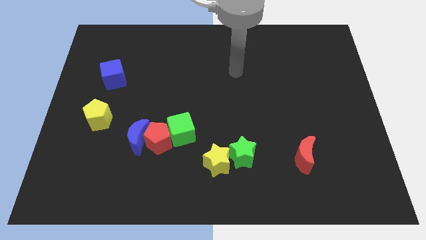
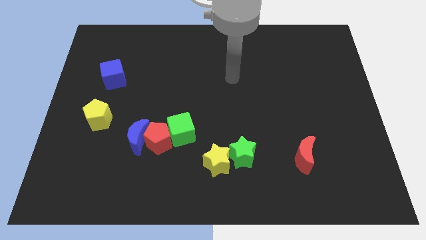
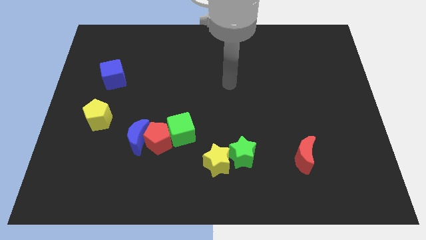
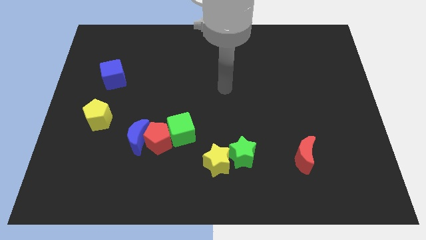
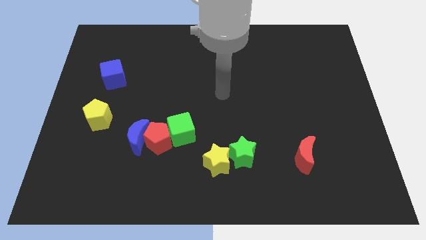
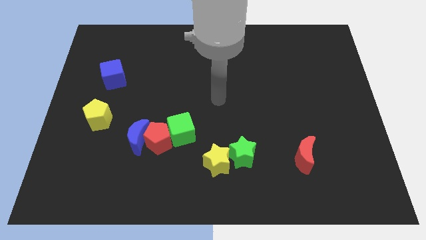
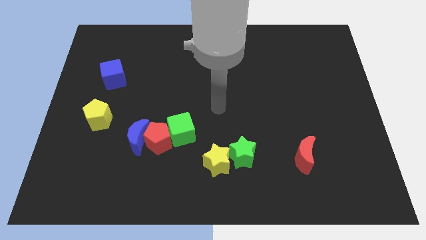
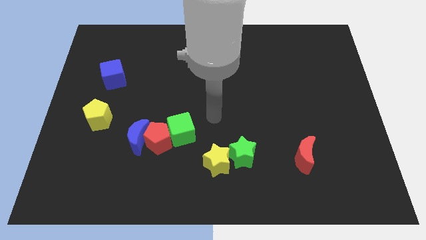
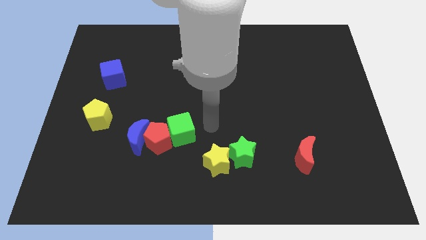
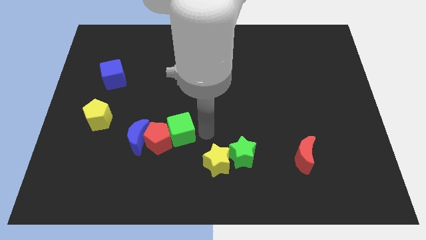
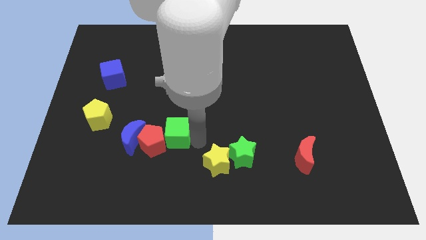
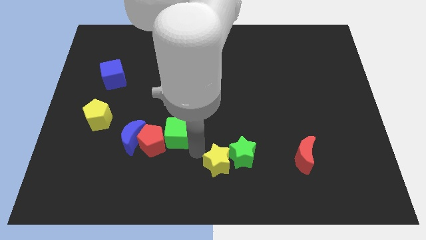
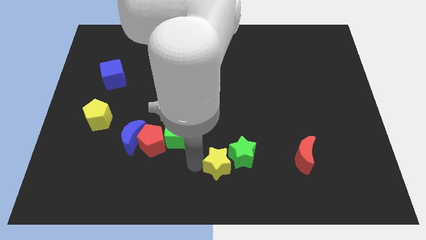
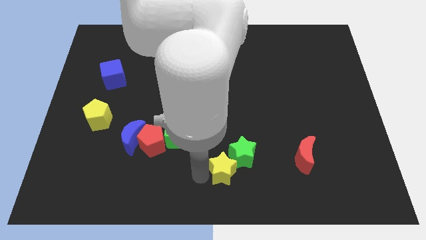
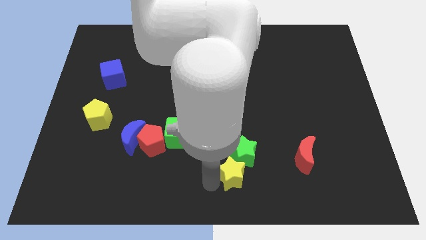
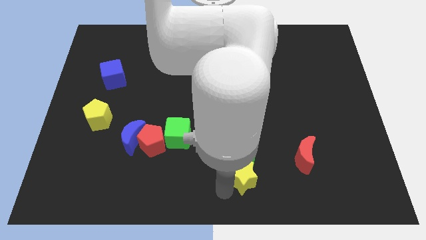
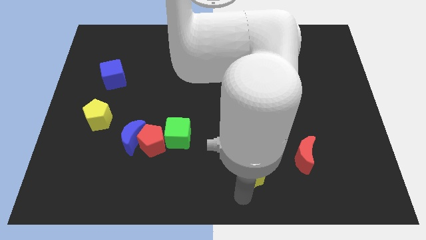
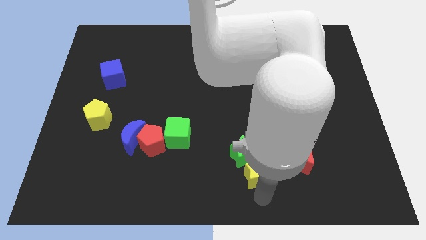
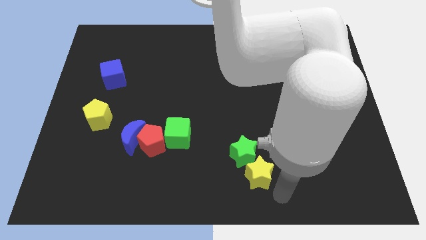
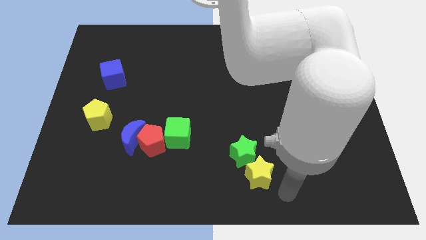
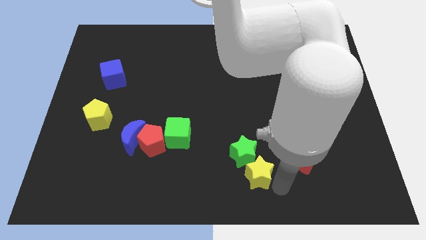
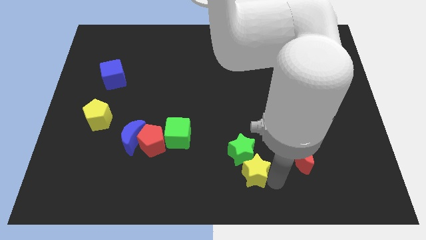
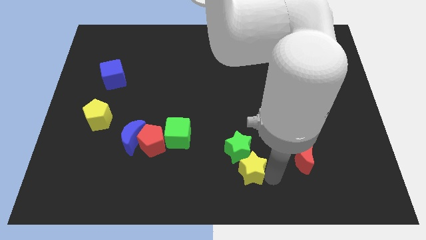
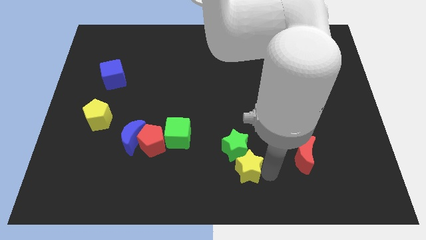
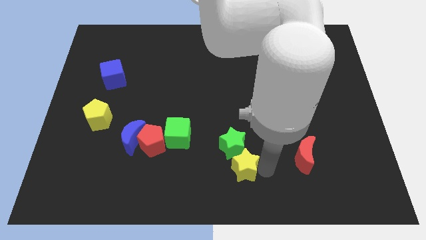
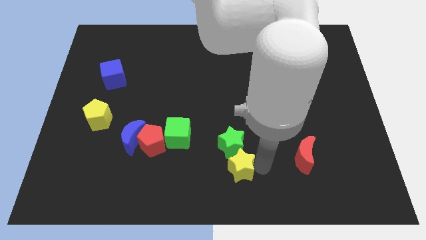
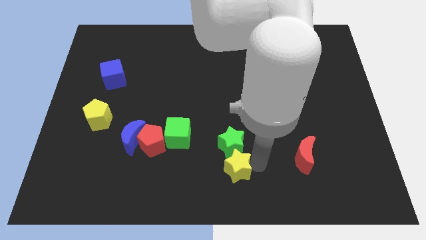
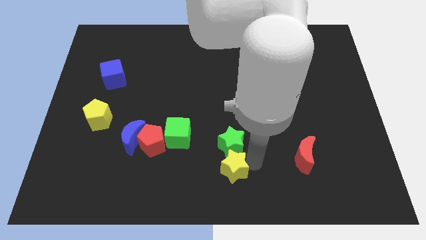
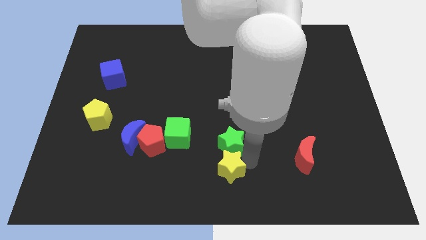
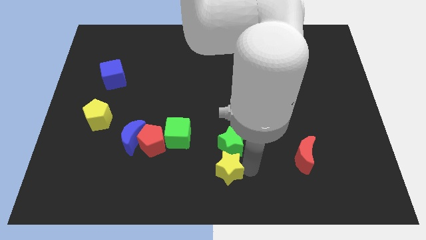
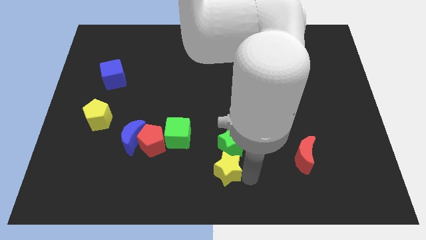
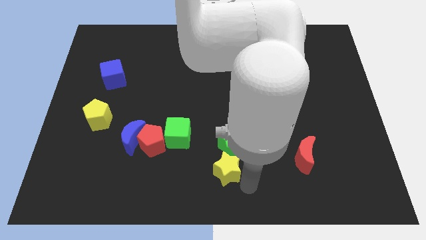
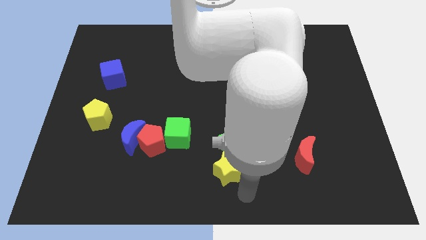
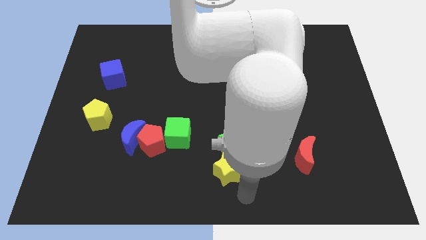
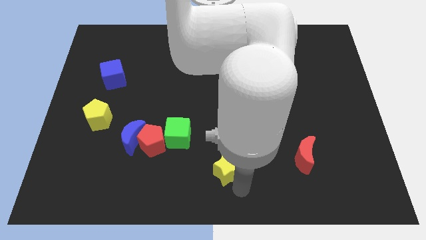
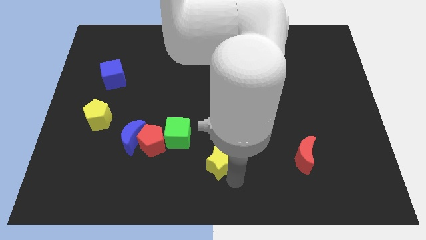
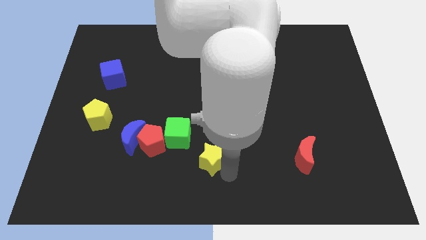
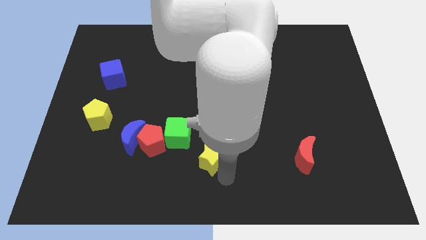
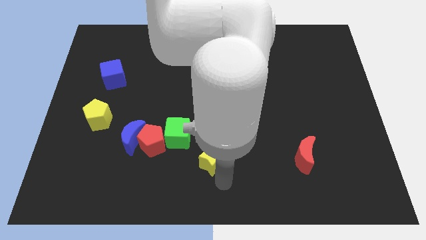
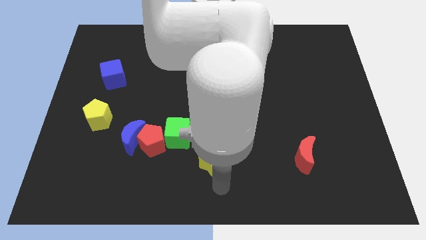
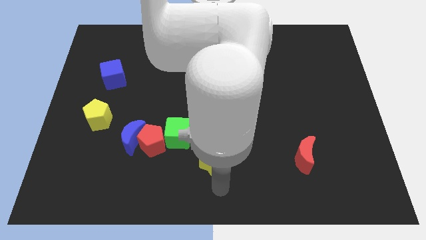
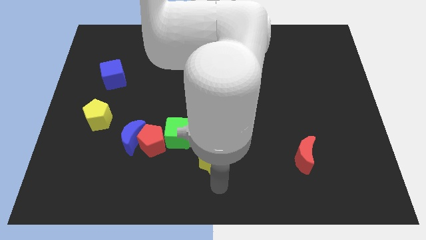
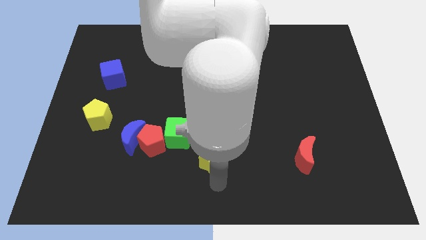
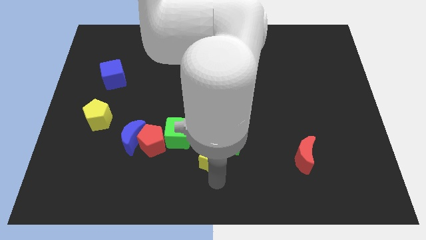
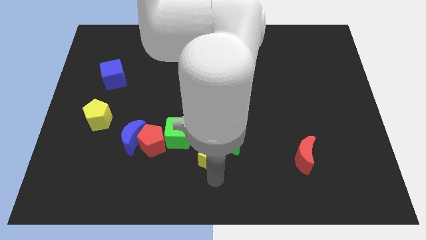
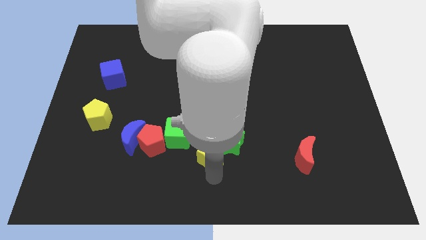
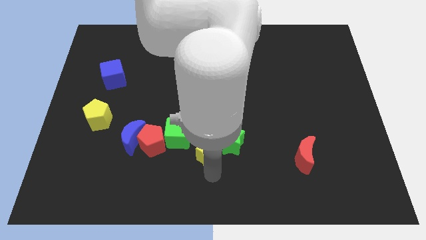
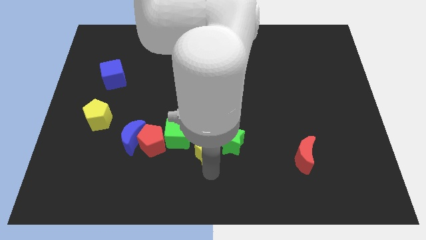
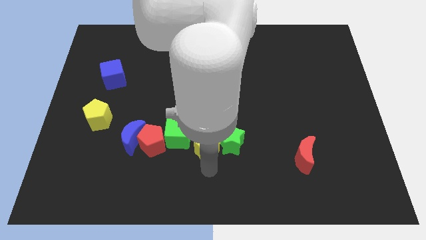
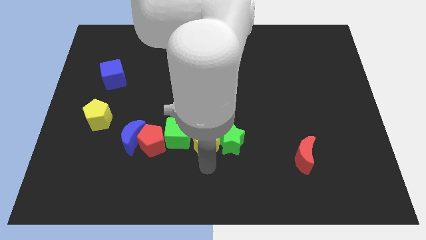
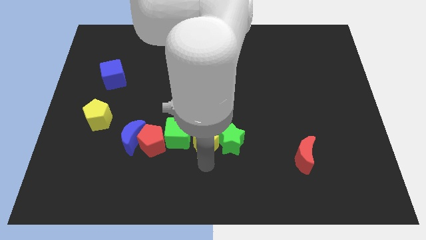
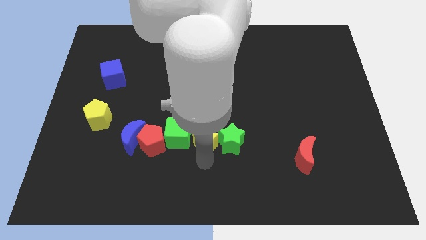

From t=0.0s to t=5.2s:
push the yellow star to the center of the board
